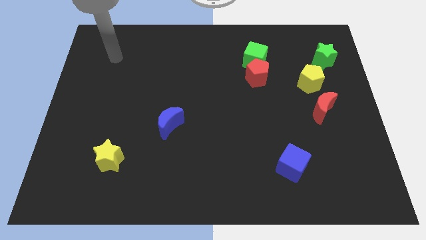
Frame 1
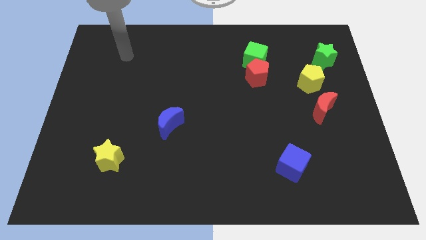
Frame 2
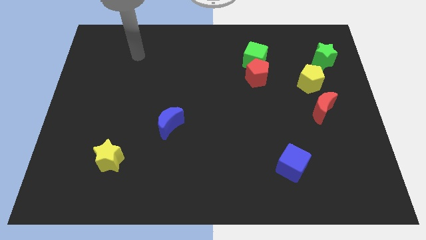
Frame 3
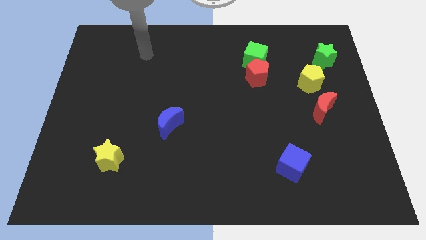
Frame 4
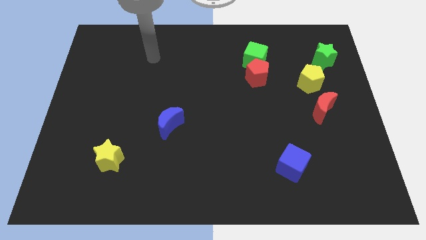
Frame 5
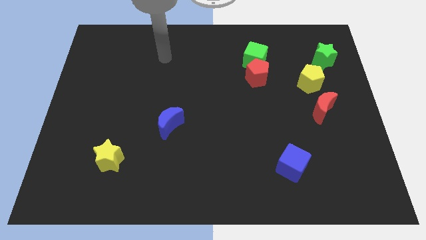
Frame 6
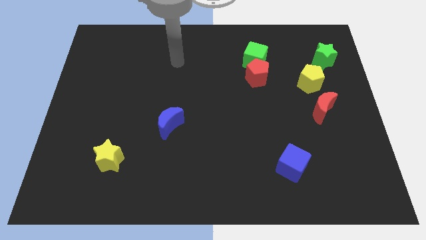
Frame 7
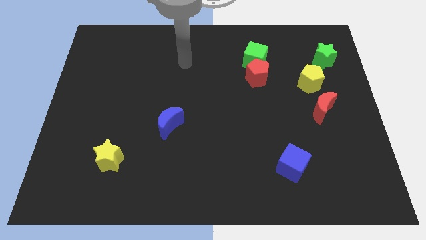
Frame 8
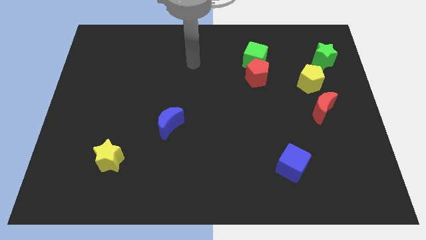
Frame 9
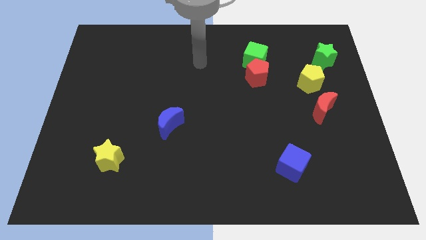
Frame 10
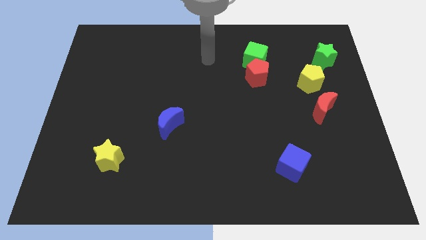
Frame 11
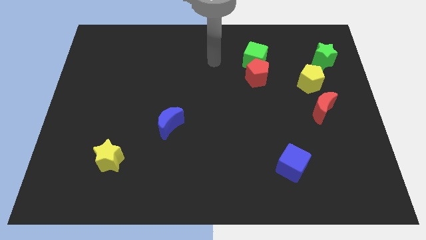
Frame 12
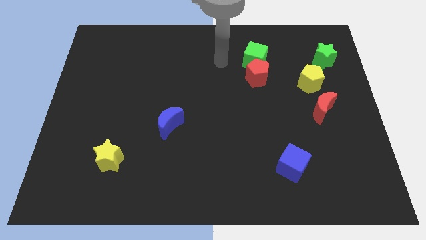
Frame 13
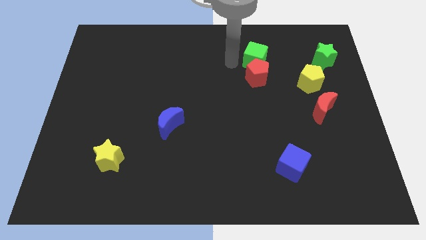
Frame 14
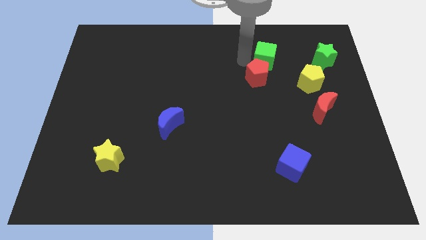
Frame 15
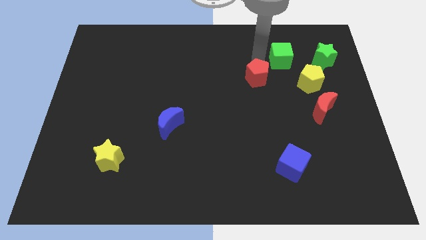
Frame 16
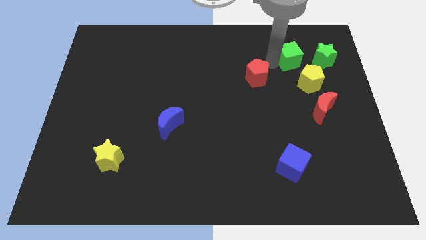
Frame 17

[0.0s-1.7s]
separate the red pentagon from the green cube

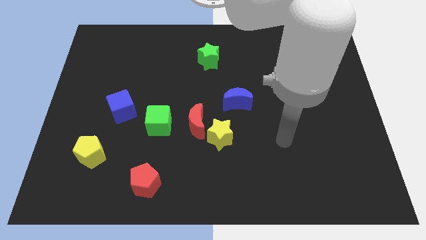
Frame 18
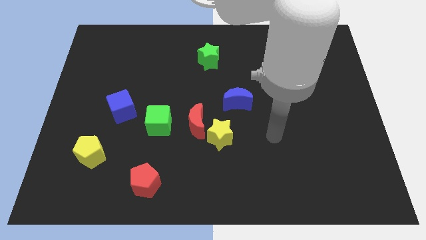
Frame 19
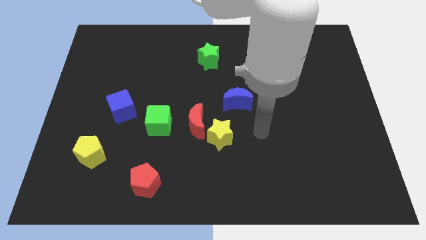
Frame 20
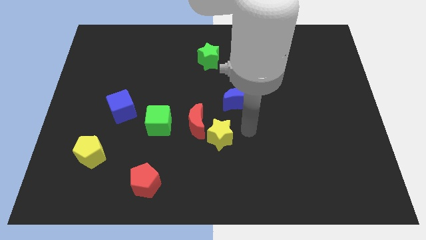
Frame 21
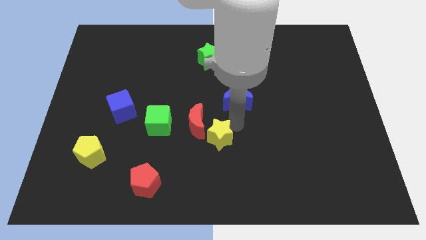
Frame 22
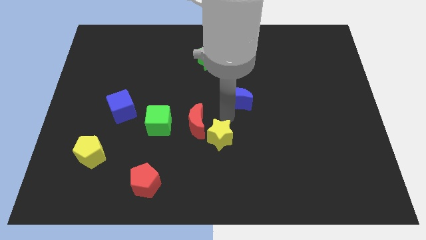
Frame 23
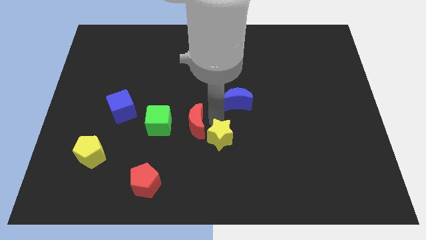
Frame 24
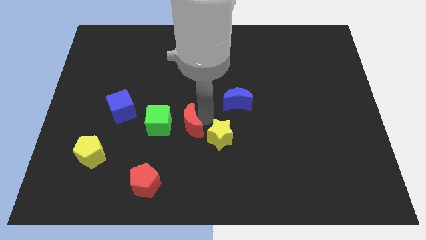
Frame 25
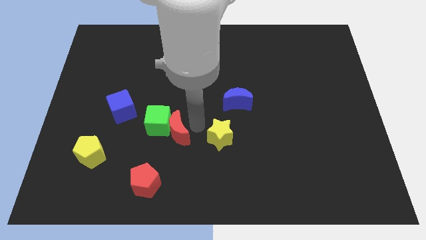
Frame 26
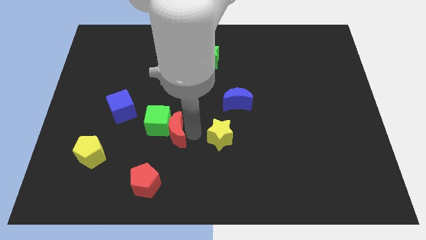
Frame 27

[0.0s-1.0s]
move the yellow star away from the red moon

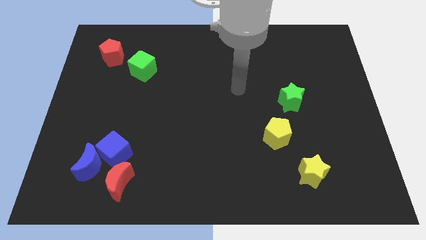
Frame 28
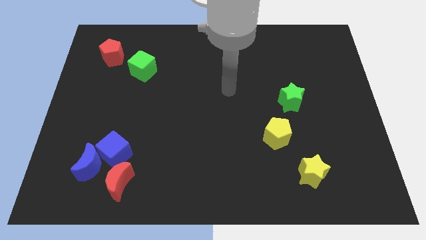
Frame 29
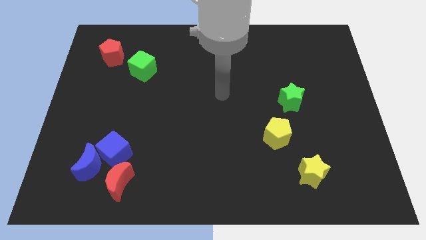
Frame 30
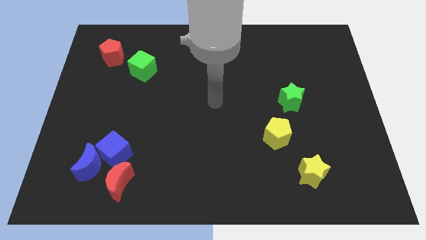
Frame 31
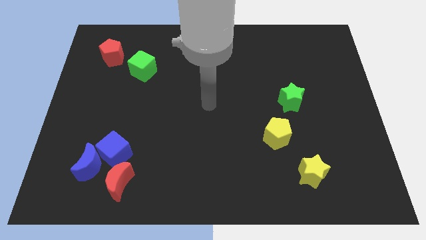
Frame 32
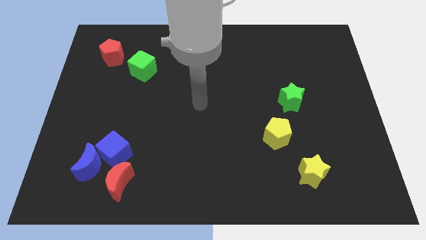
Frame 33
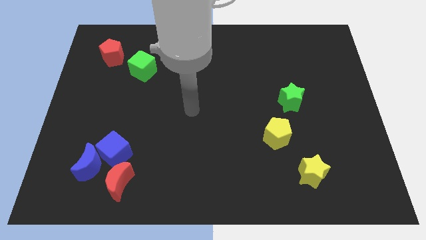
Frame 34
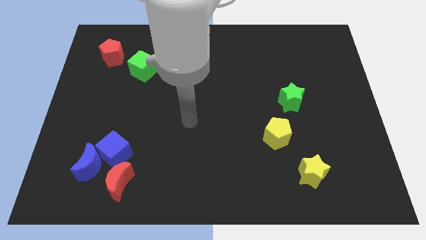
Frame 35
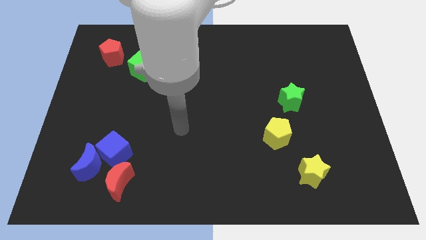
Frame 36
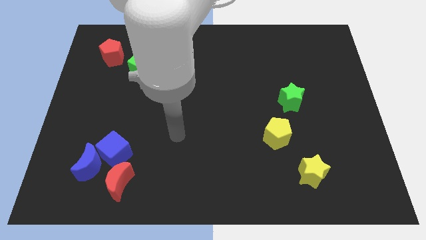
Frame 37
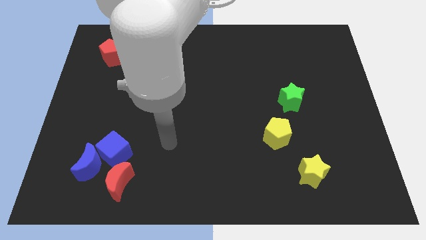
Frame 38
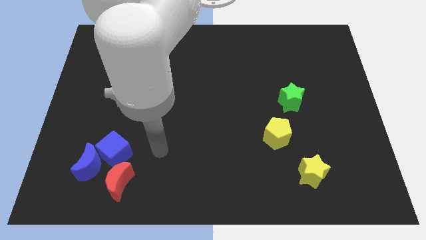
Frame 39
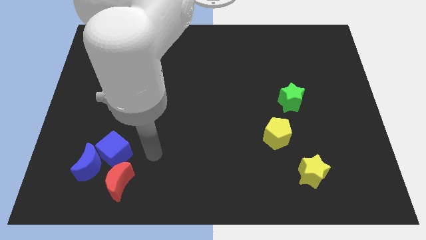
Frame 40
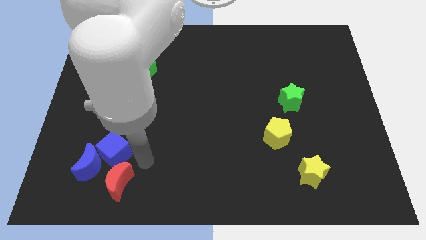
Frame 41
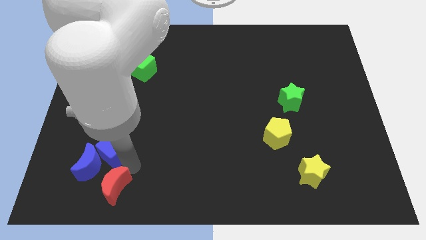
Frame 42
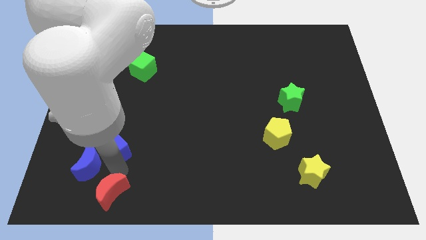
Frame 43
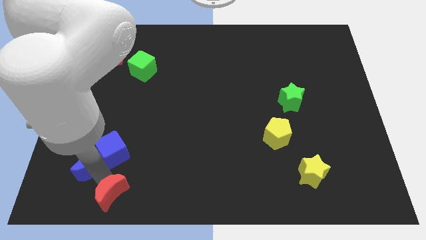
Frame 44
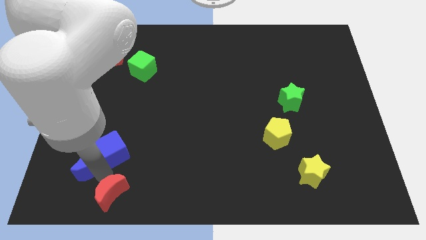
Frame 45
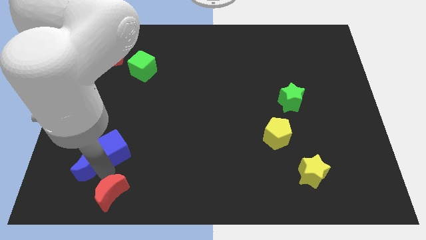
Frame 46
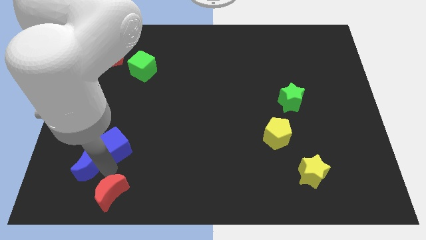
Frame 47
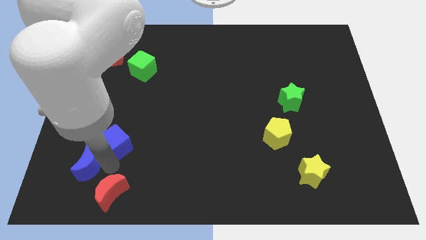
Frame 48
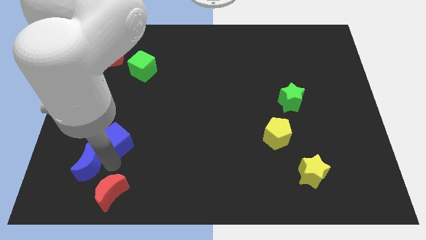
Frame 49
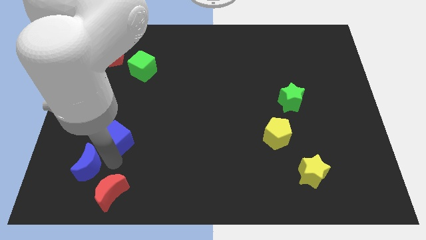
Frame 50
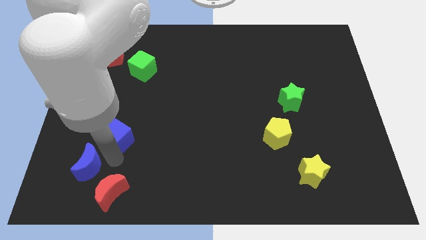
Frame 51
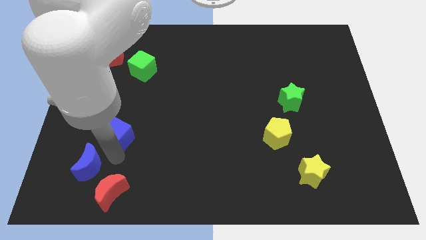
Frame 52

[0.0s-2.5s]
move the blue cube away from the blue moon and red moon

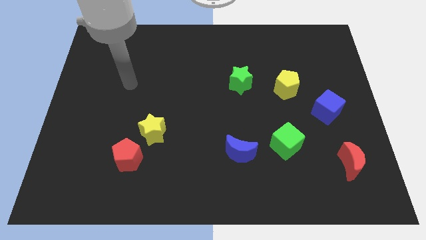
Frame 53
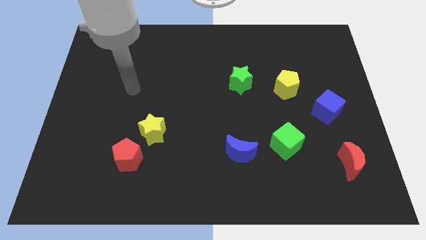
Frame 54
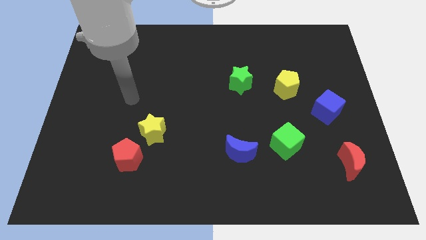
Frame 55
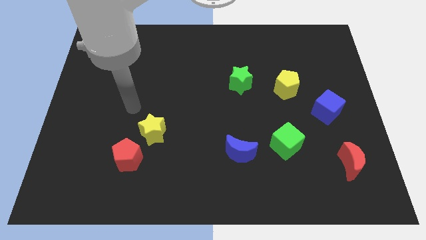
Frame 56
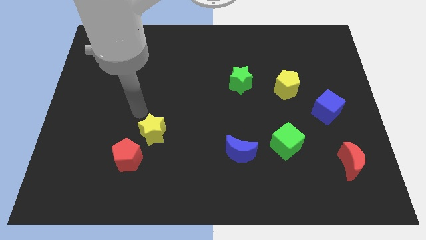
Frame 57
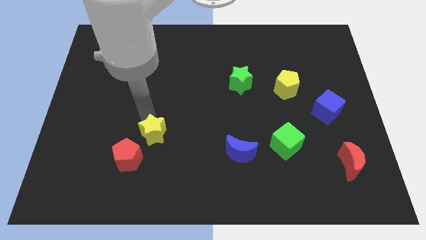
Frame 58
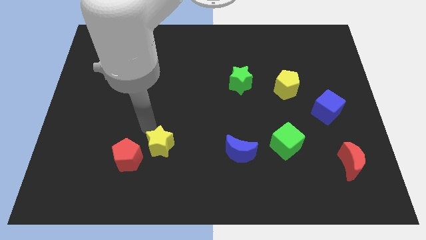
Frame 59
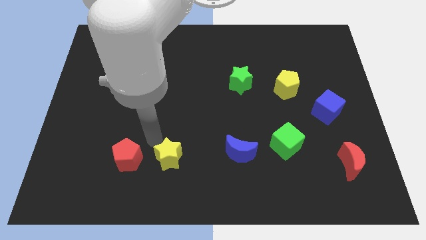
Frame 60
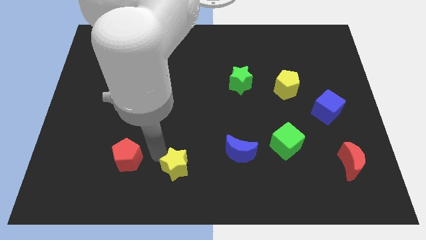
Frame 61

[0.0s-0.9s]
move the red pentagon away from the yellow star

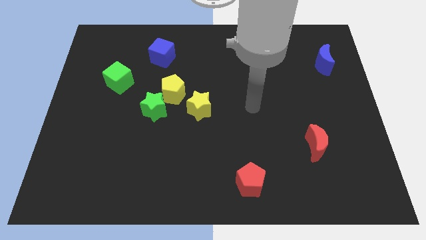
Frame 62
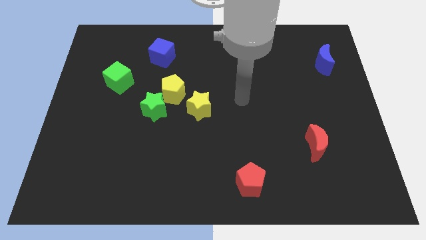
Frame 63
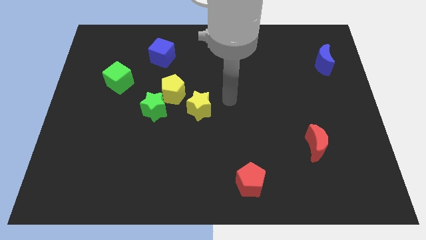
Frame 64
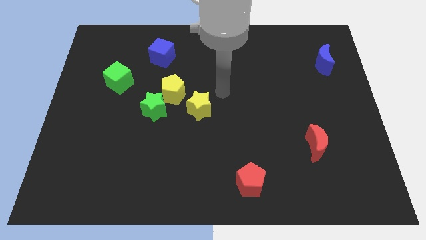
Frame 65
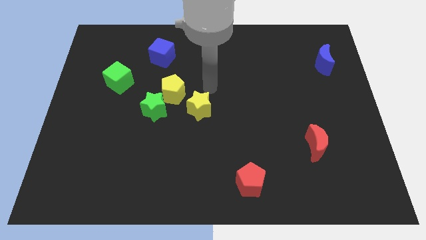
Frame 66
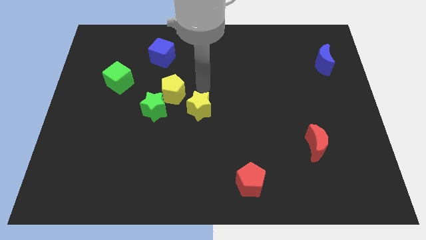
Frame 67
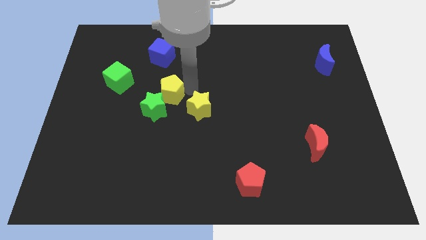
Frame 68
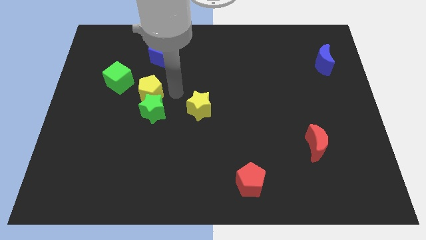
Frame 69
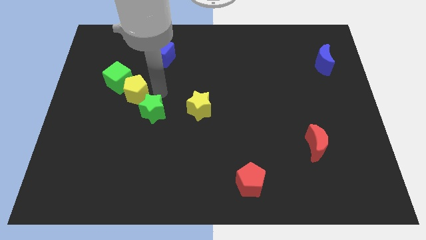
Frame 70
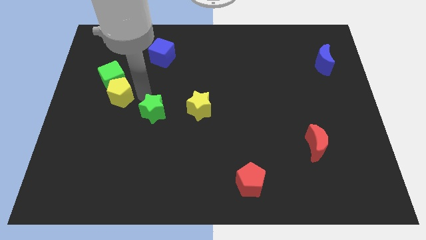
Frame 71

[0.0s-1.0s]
separate the green star from the yellow pentagon

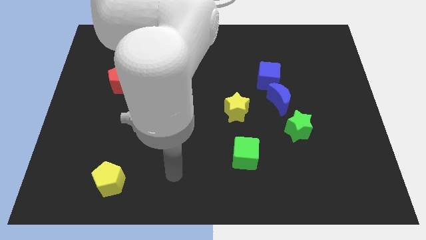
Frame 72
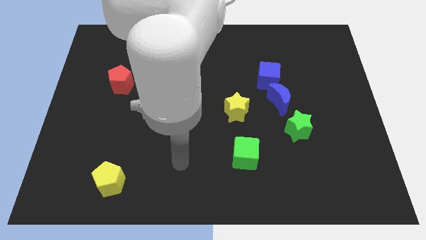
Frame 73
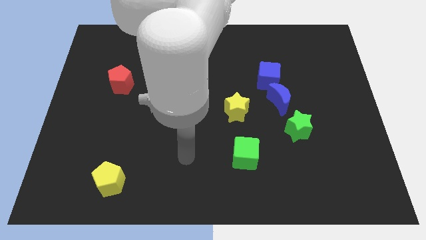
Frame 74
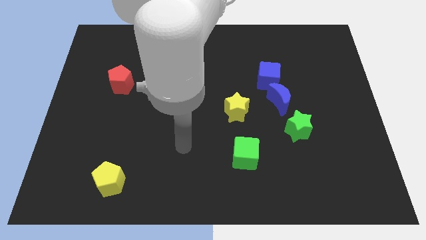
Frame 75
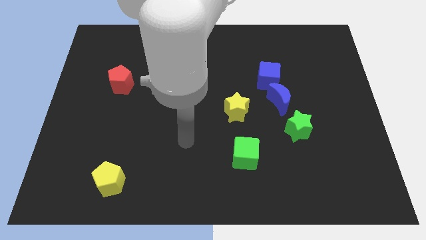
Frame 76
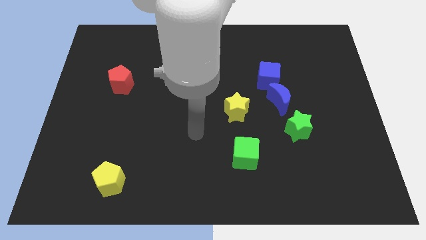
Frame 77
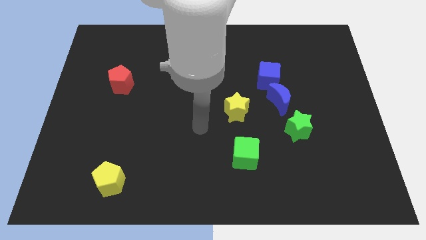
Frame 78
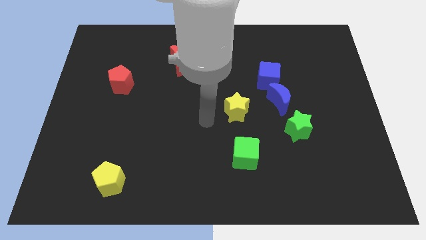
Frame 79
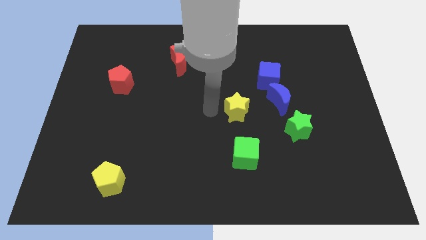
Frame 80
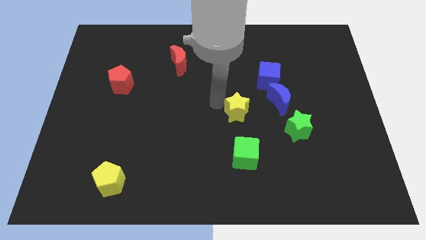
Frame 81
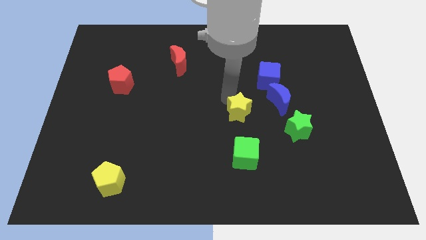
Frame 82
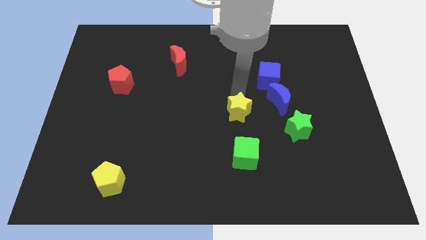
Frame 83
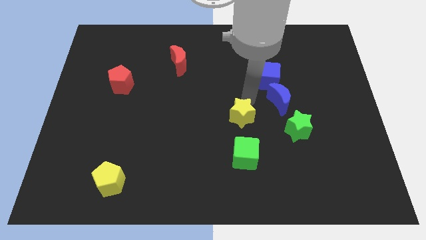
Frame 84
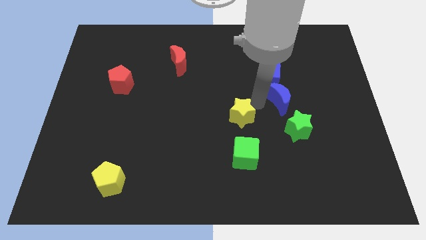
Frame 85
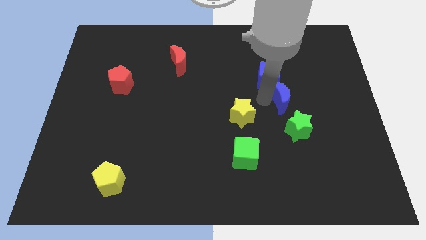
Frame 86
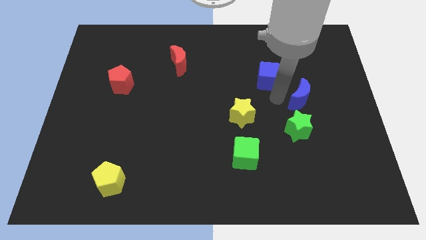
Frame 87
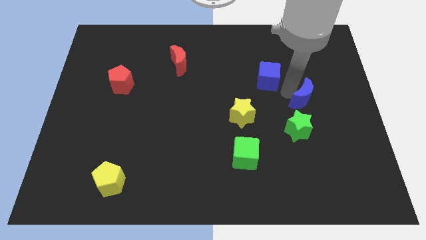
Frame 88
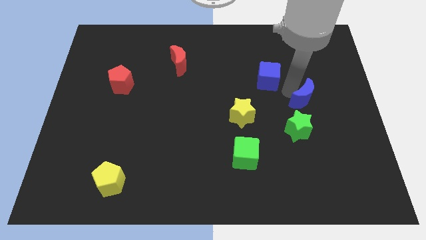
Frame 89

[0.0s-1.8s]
pull the blue cube apart from the blue moon

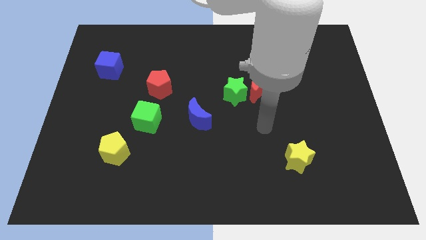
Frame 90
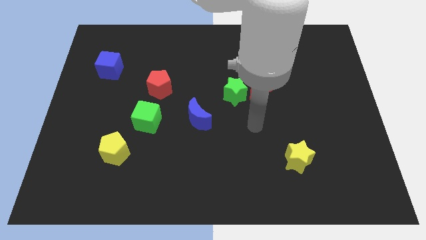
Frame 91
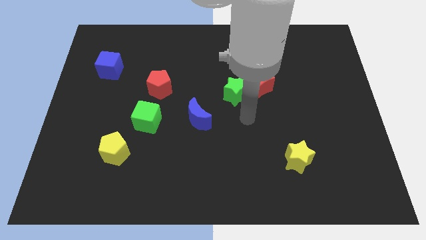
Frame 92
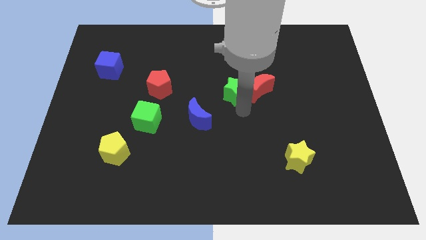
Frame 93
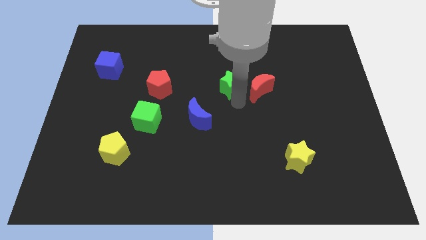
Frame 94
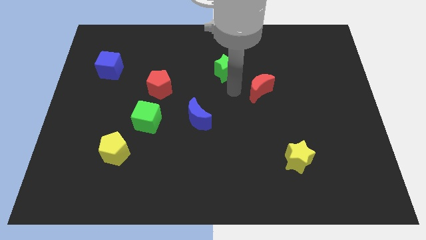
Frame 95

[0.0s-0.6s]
move the red moon away from the green star
